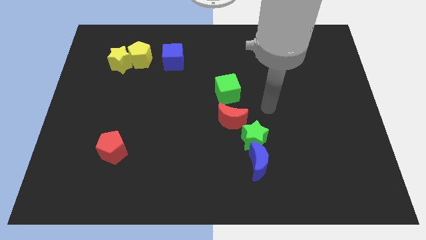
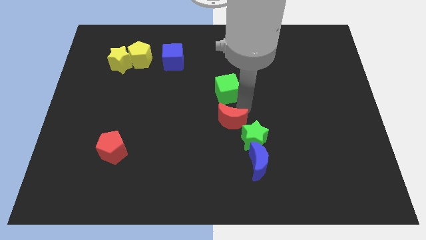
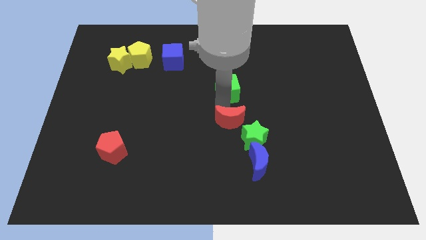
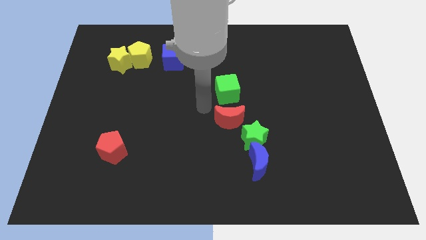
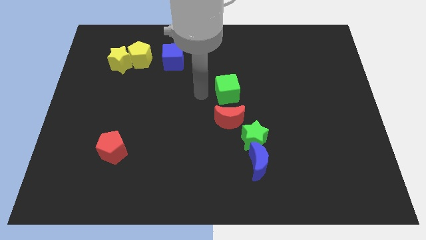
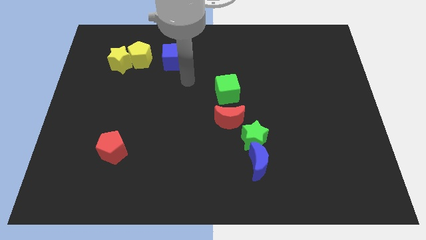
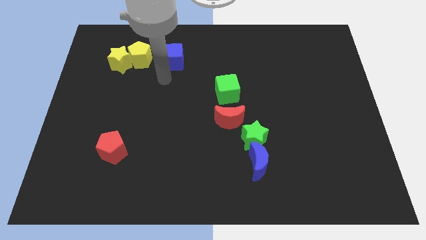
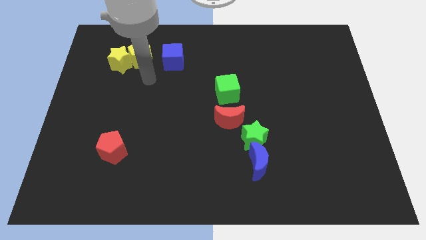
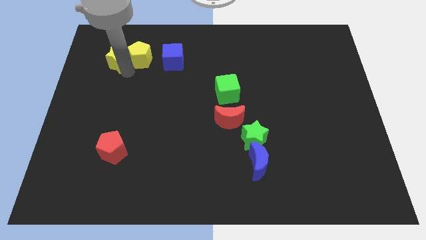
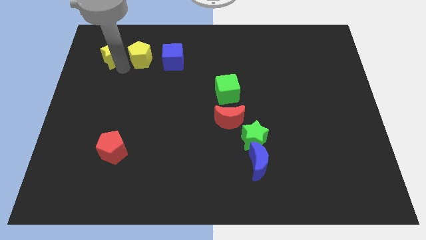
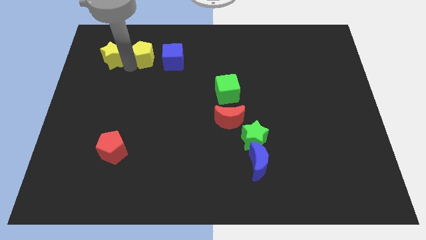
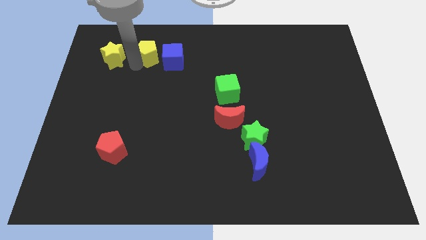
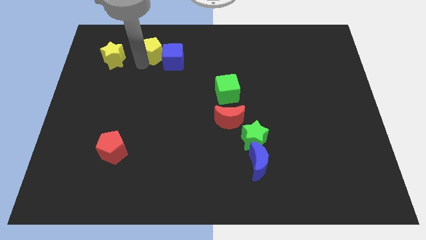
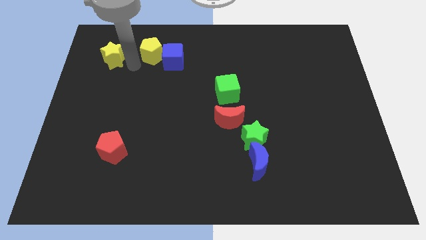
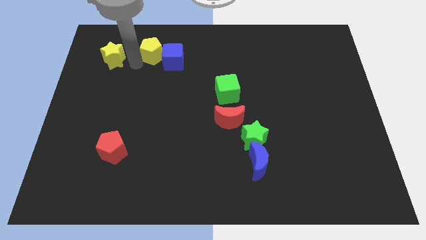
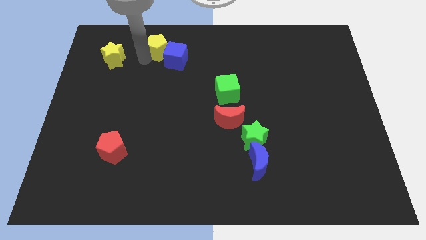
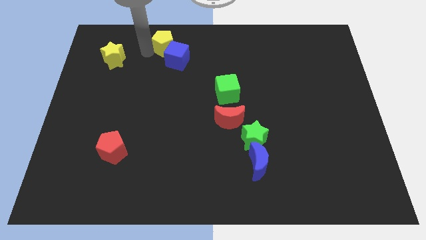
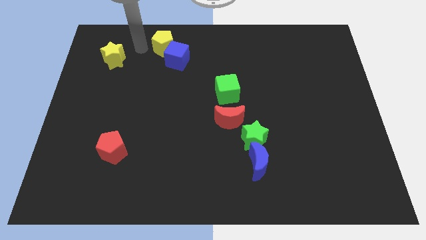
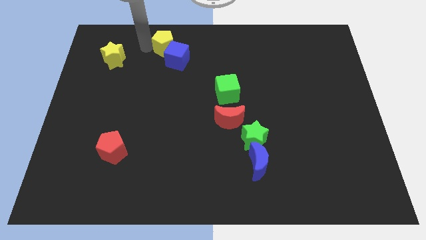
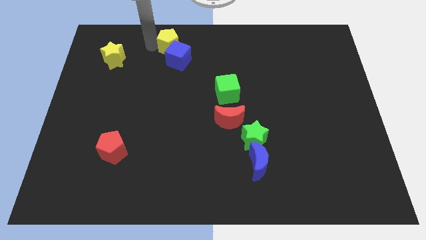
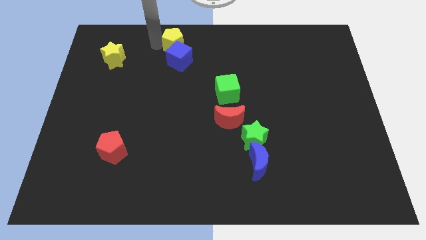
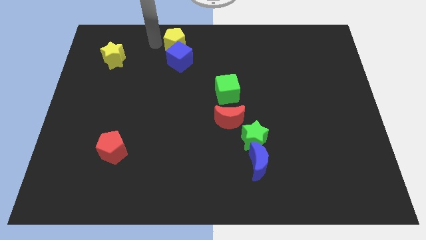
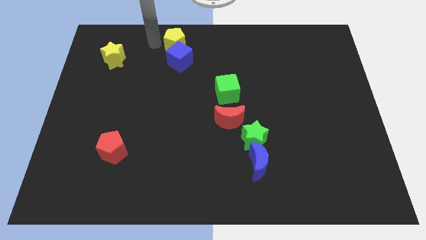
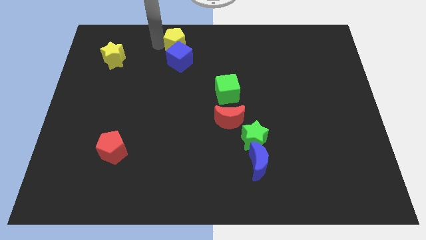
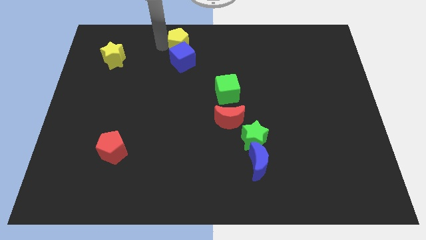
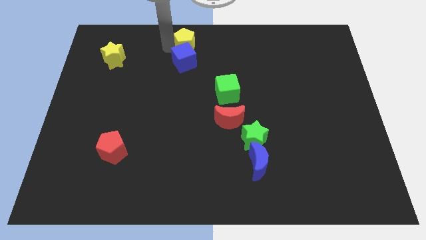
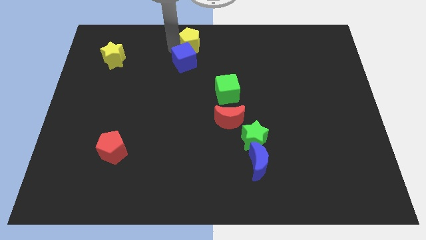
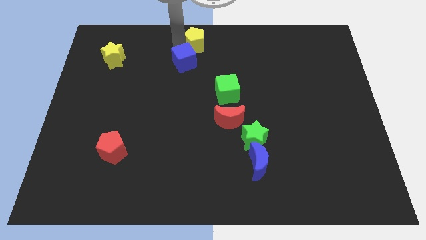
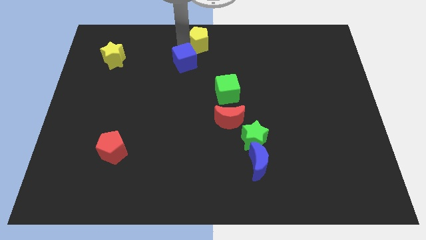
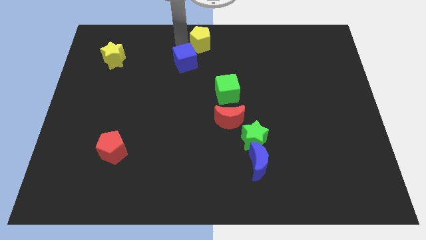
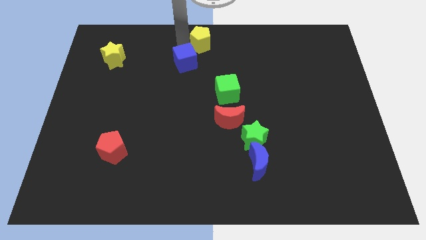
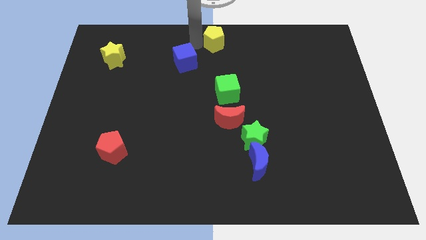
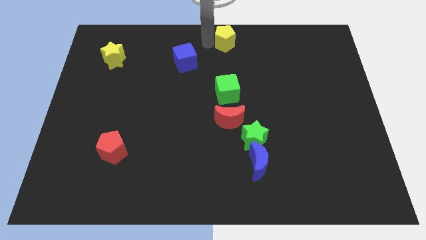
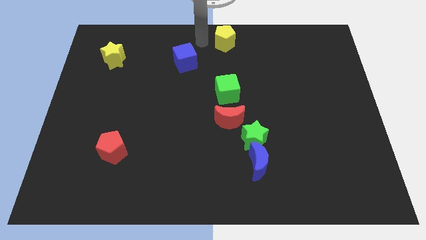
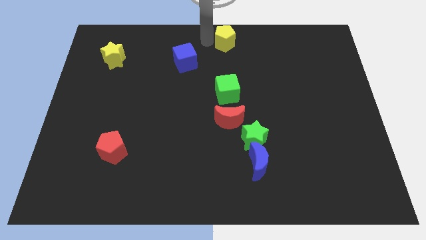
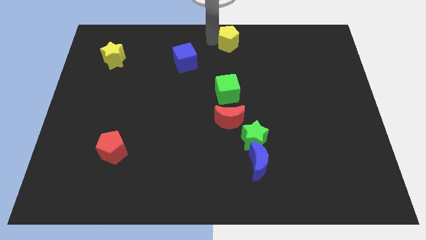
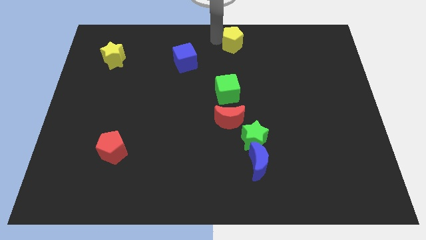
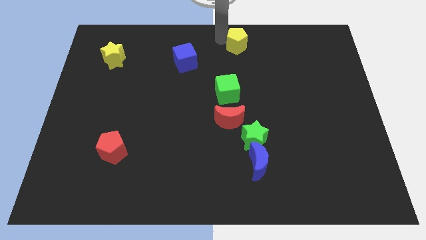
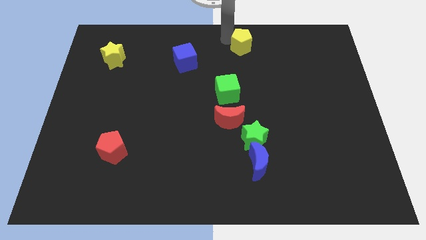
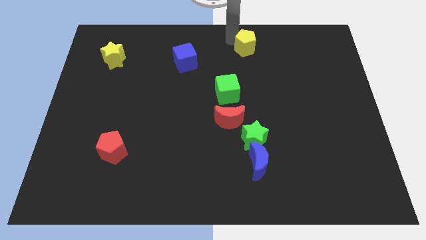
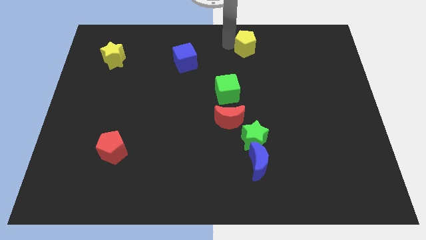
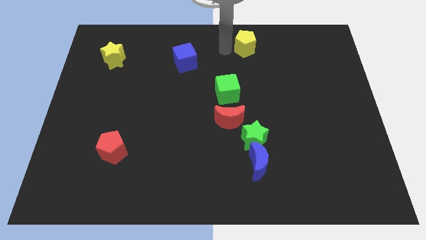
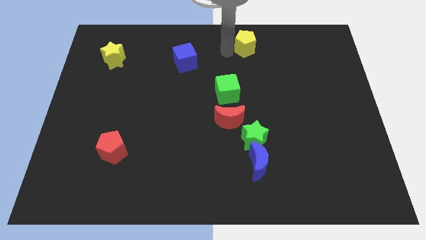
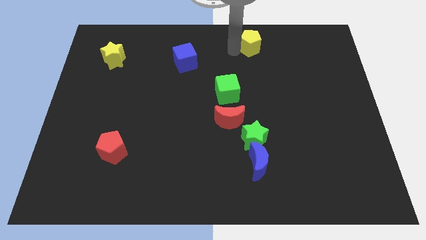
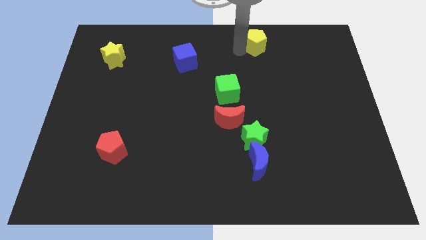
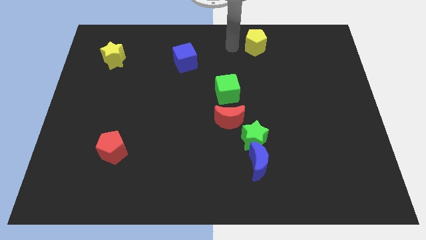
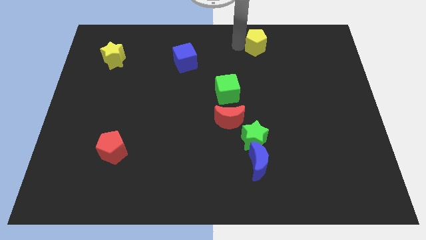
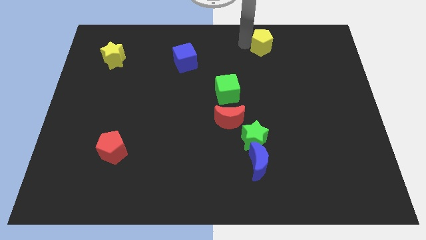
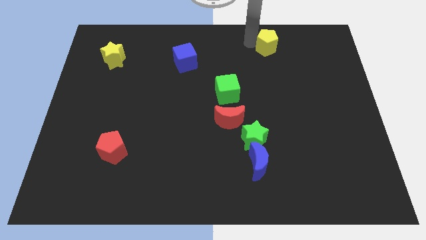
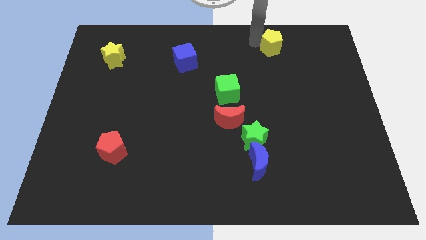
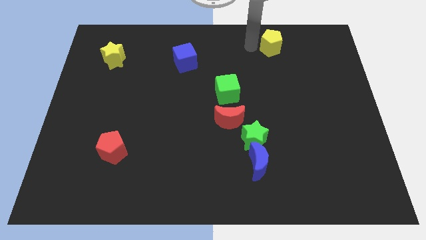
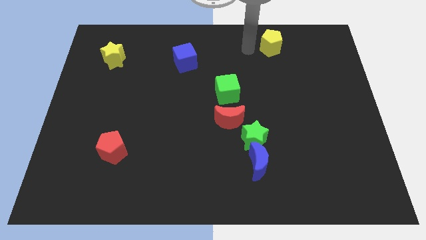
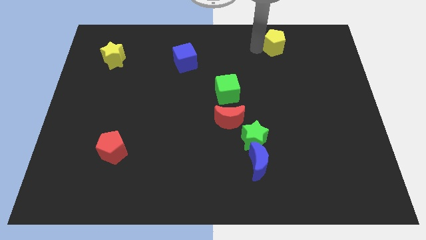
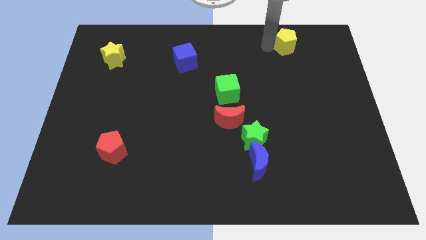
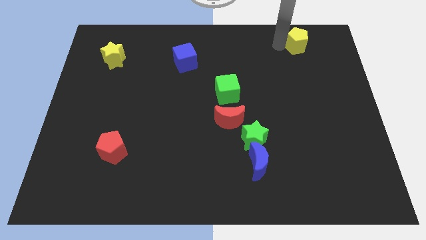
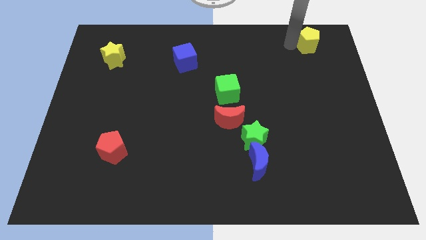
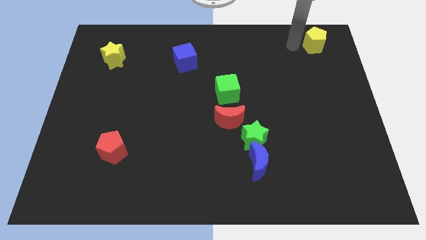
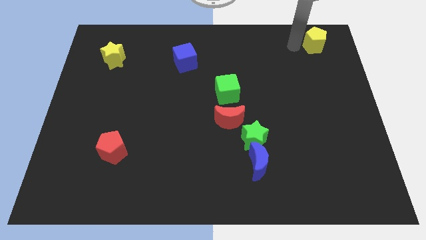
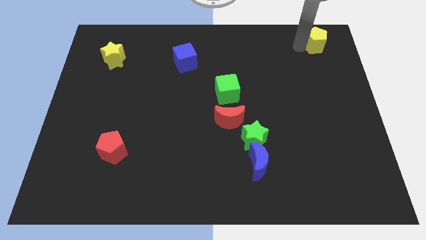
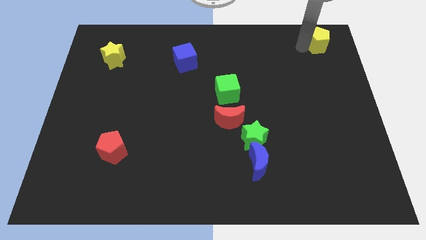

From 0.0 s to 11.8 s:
slide the yellow pentagon to the top right corner
